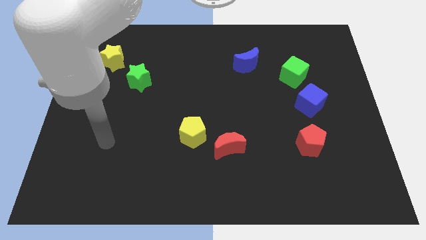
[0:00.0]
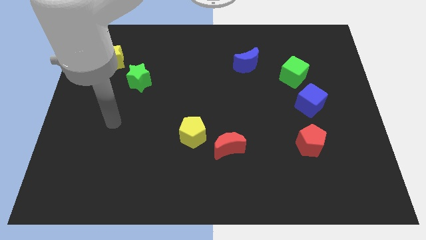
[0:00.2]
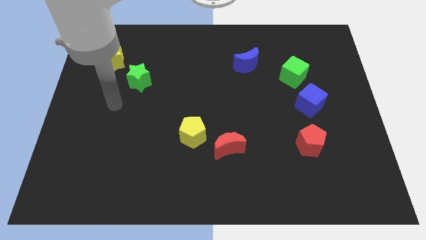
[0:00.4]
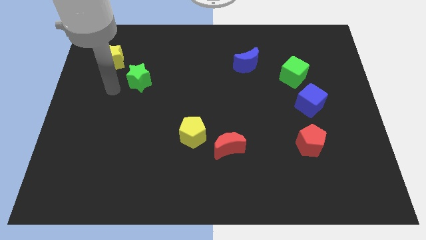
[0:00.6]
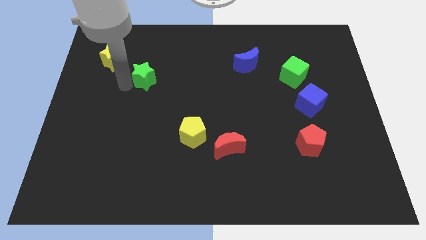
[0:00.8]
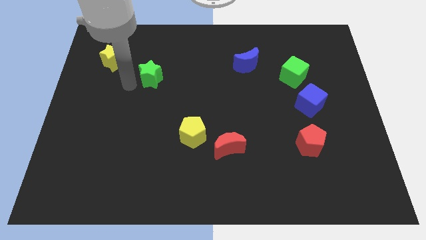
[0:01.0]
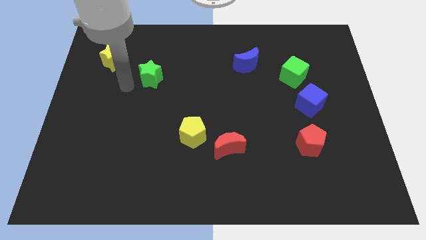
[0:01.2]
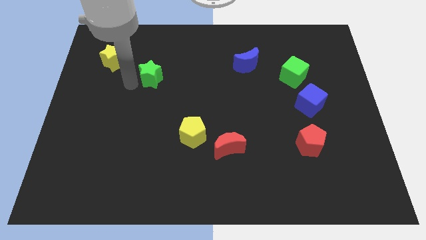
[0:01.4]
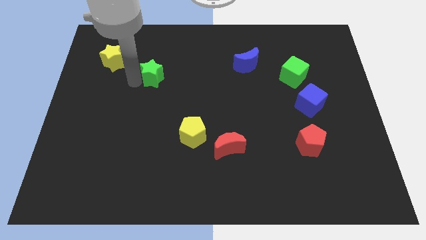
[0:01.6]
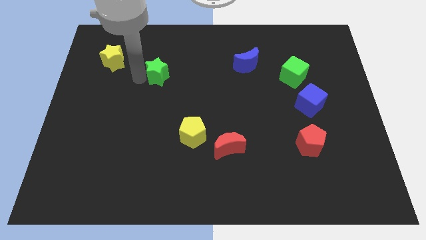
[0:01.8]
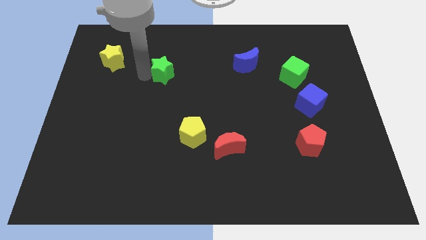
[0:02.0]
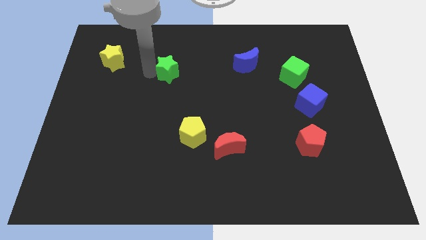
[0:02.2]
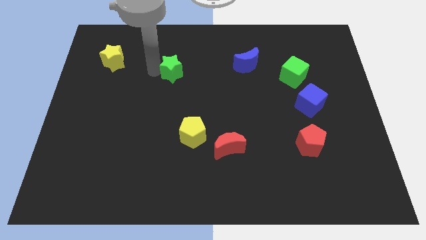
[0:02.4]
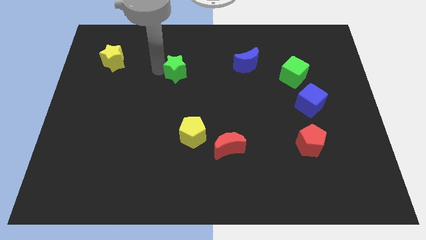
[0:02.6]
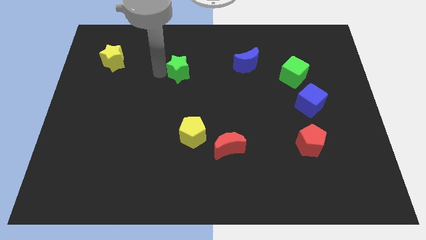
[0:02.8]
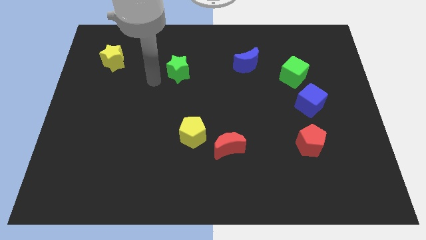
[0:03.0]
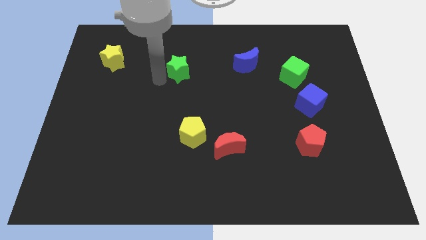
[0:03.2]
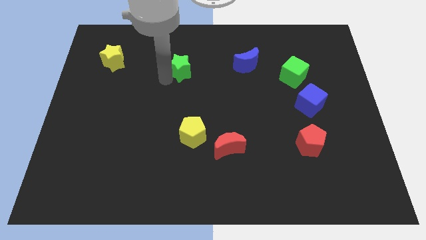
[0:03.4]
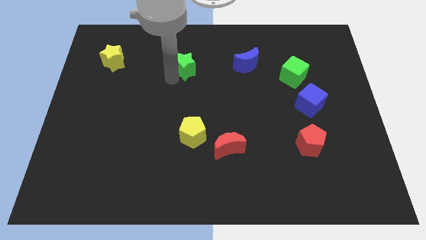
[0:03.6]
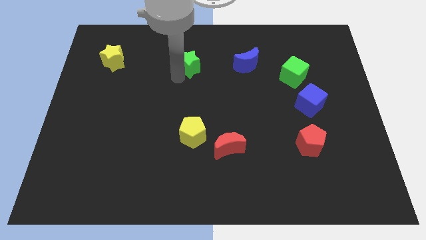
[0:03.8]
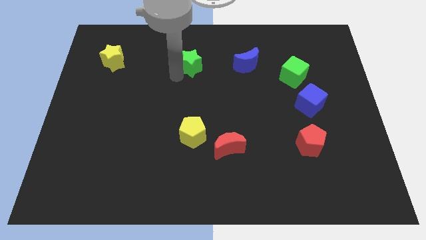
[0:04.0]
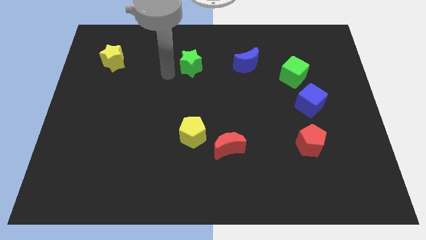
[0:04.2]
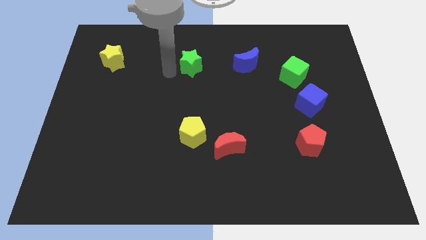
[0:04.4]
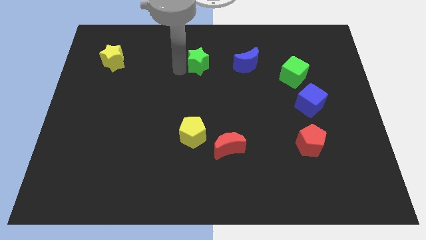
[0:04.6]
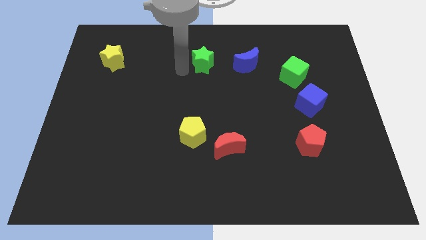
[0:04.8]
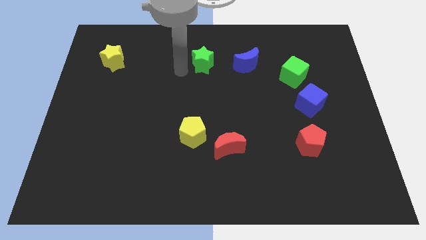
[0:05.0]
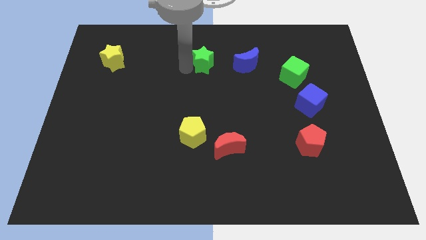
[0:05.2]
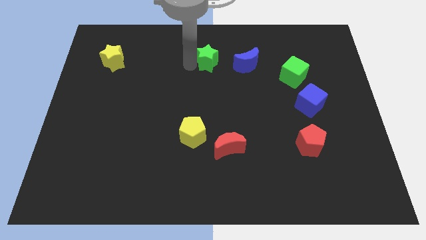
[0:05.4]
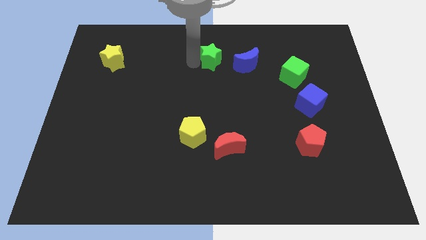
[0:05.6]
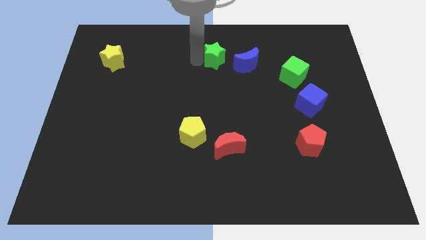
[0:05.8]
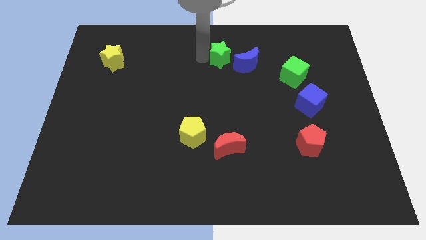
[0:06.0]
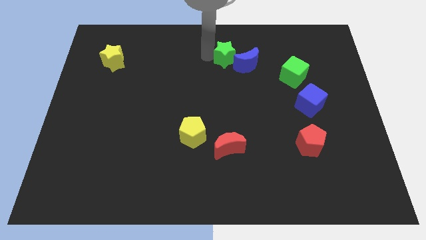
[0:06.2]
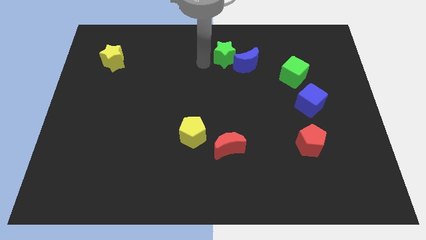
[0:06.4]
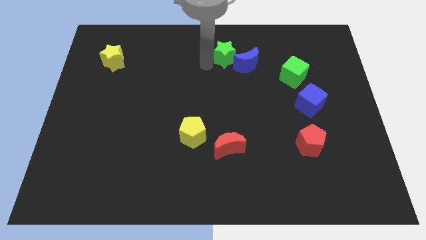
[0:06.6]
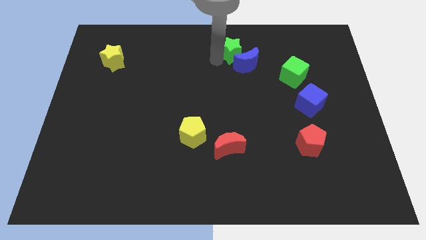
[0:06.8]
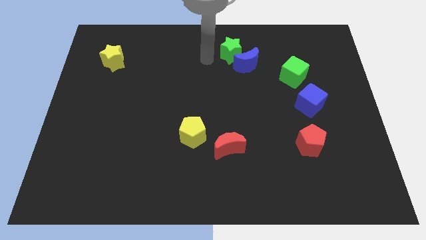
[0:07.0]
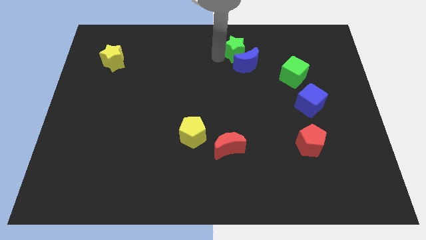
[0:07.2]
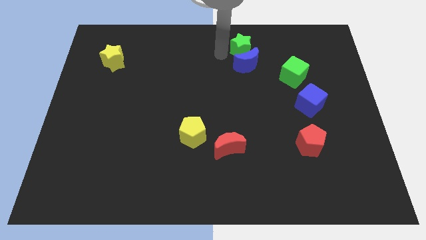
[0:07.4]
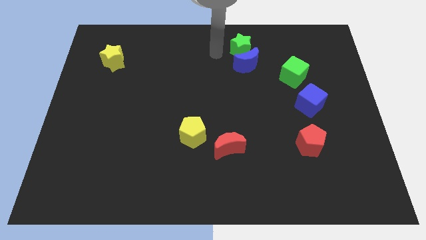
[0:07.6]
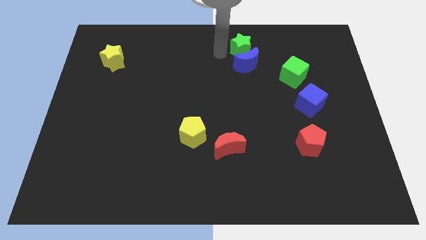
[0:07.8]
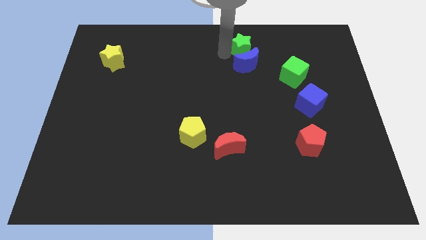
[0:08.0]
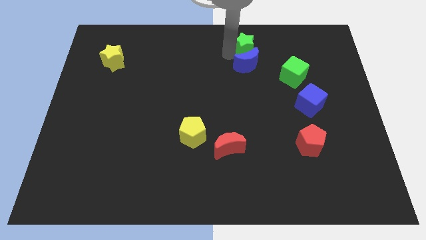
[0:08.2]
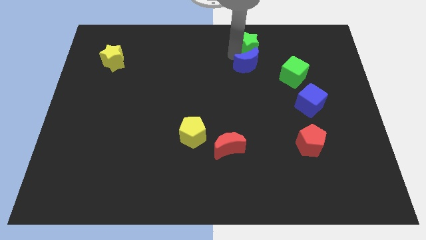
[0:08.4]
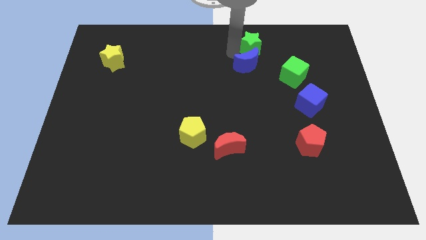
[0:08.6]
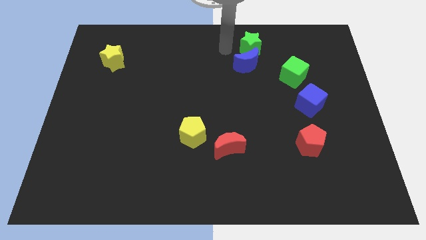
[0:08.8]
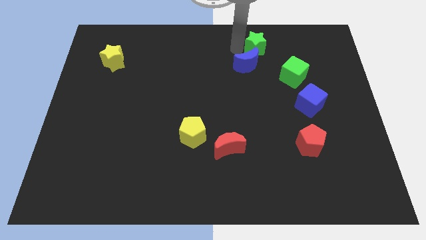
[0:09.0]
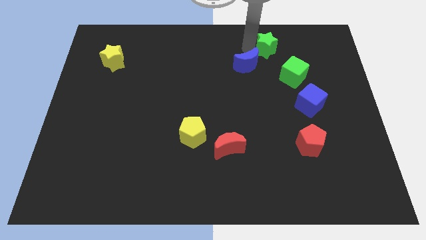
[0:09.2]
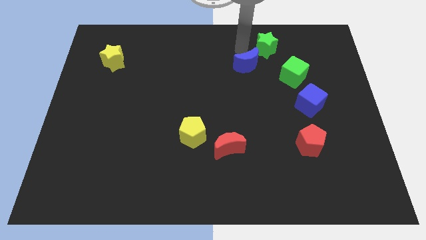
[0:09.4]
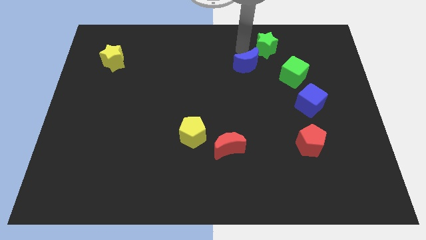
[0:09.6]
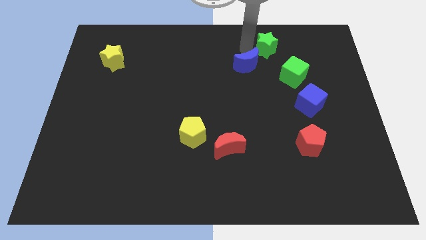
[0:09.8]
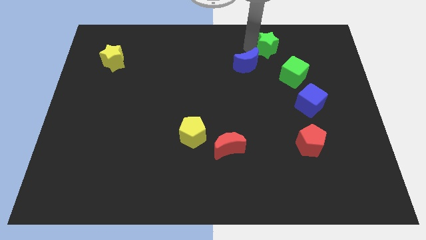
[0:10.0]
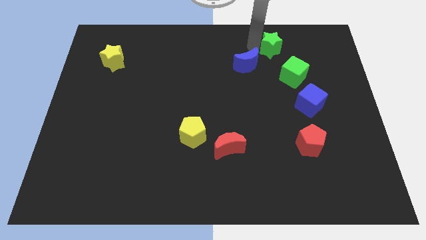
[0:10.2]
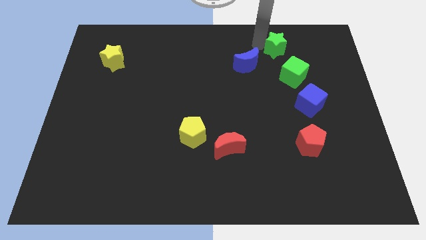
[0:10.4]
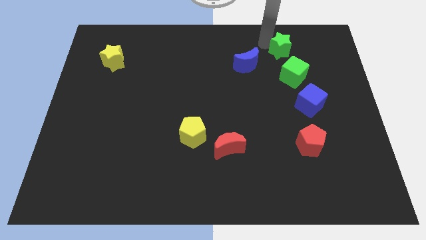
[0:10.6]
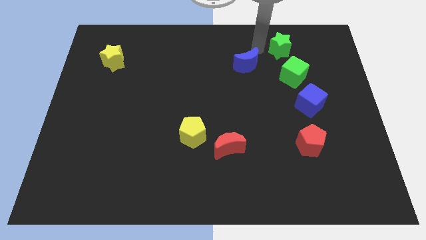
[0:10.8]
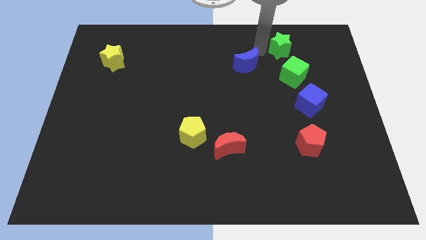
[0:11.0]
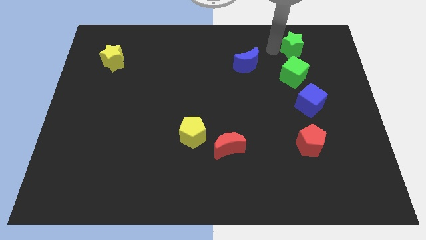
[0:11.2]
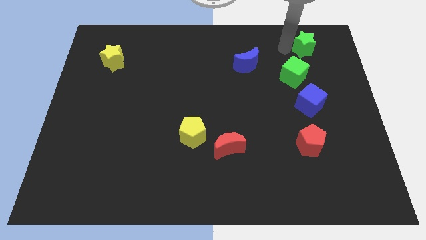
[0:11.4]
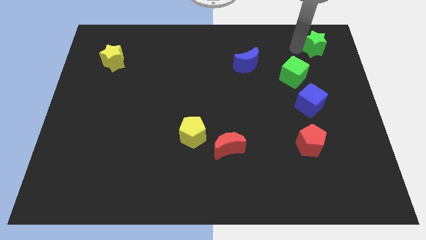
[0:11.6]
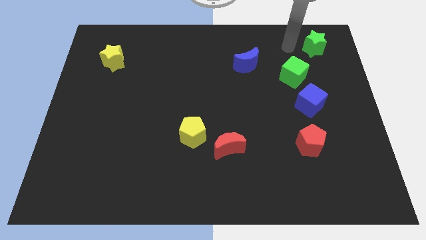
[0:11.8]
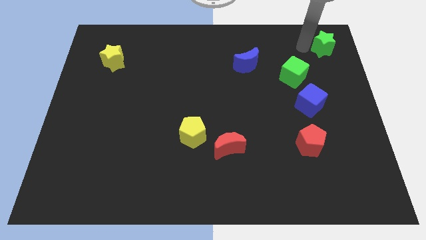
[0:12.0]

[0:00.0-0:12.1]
slide the green star to the upper right corner

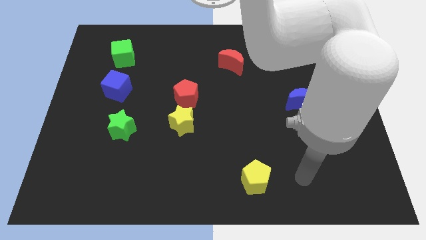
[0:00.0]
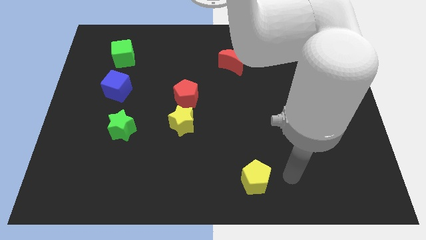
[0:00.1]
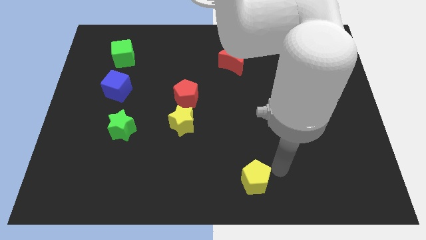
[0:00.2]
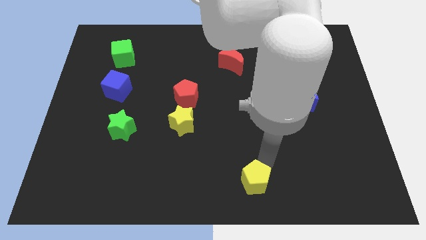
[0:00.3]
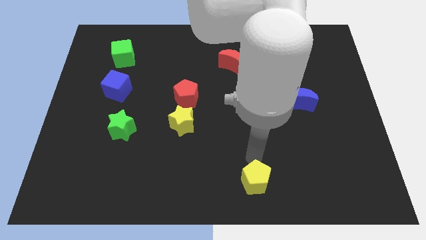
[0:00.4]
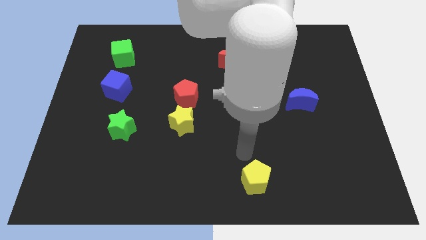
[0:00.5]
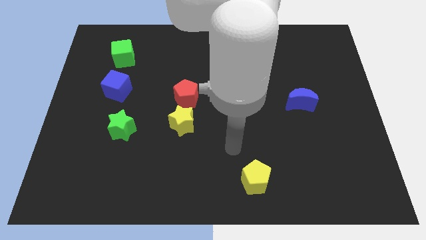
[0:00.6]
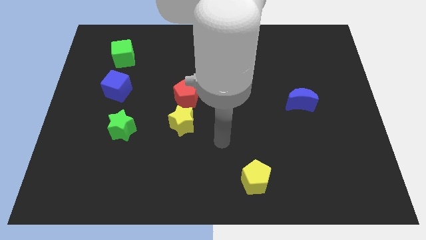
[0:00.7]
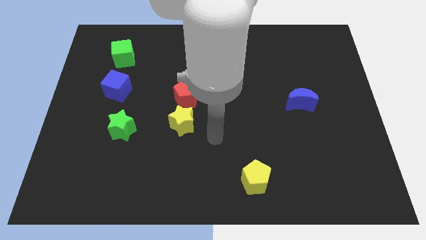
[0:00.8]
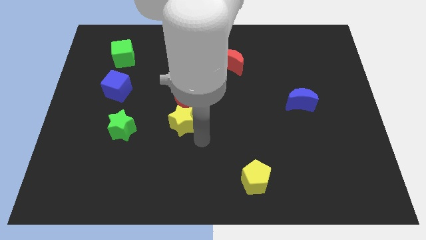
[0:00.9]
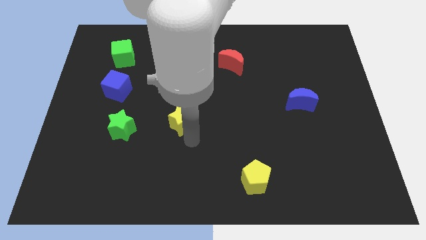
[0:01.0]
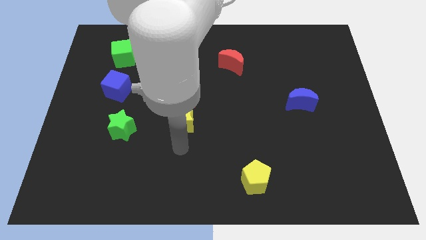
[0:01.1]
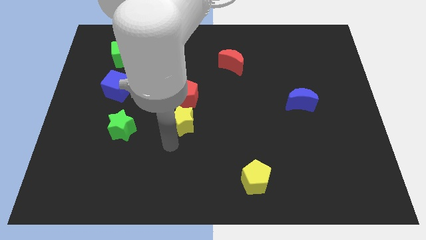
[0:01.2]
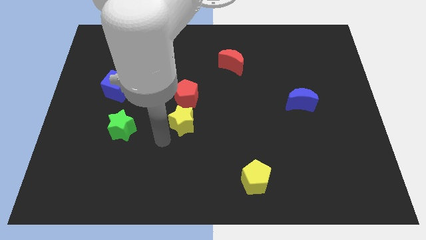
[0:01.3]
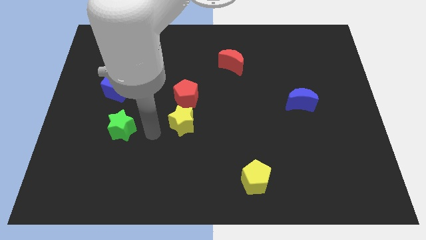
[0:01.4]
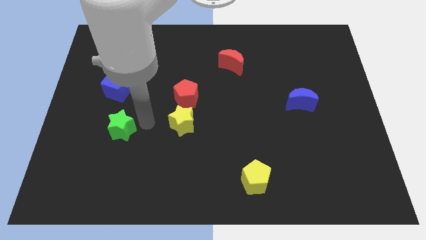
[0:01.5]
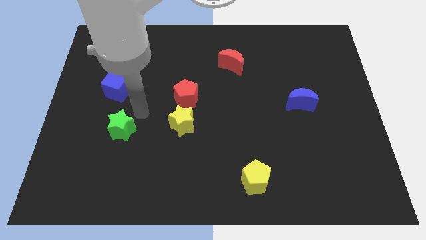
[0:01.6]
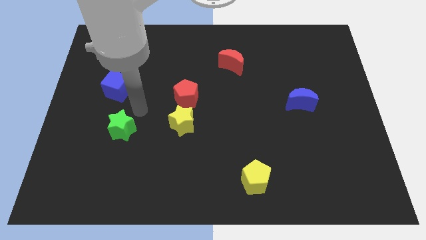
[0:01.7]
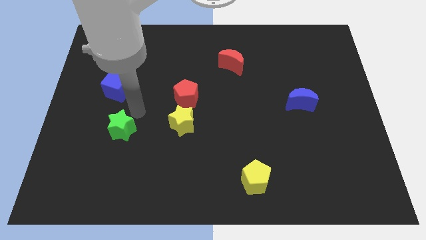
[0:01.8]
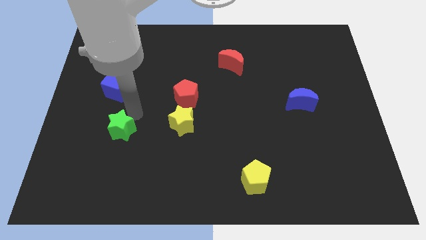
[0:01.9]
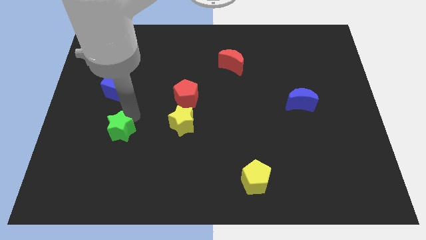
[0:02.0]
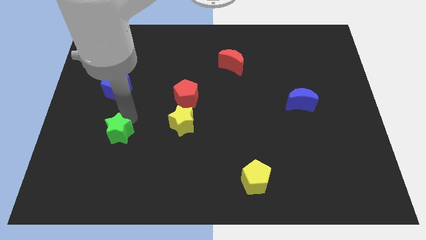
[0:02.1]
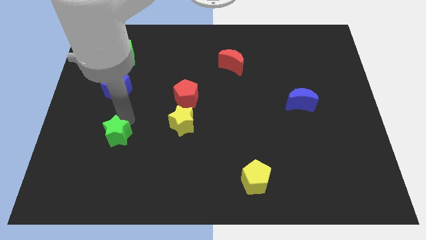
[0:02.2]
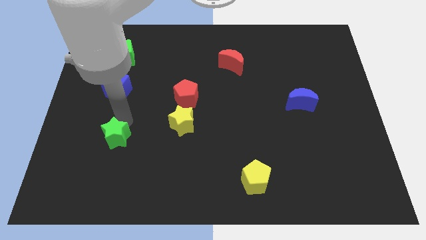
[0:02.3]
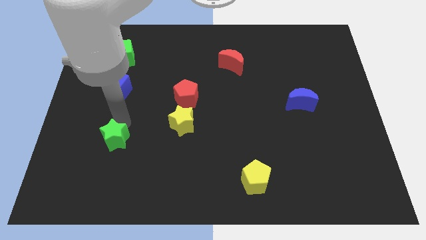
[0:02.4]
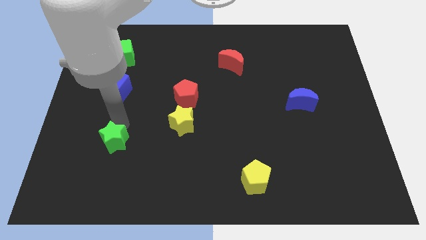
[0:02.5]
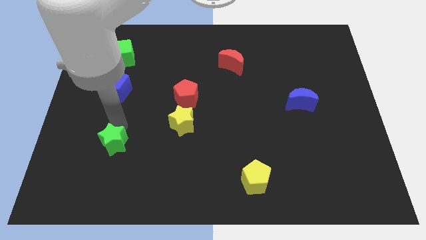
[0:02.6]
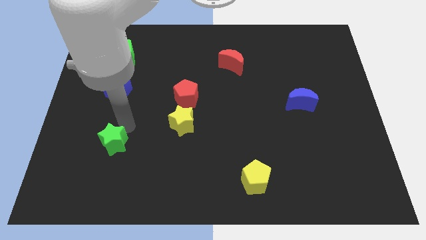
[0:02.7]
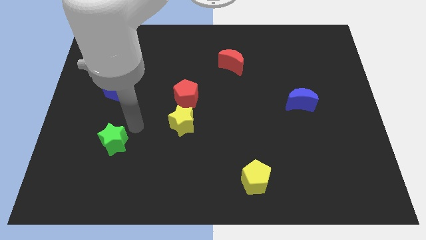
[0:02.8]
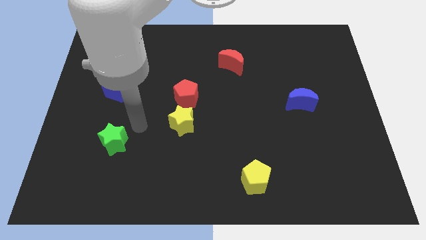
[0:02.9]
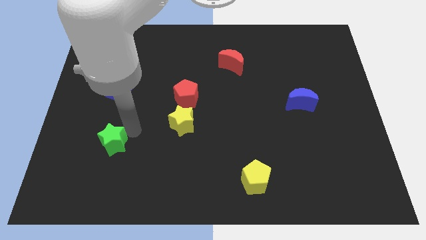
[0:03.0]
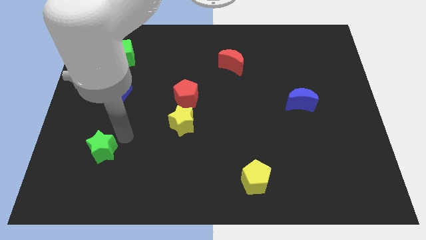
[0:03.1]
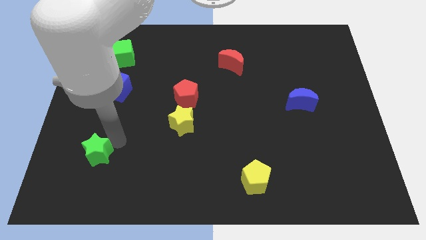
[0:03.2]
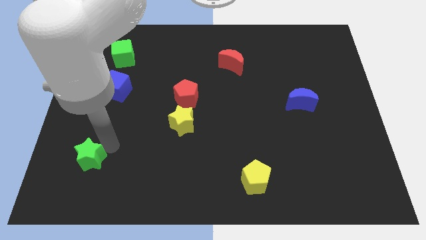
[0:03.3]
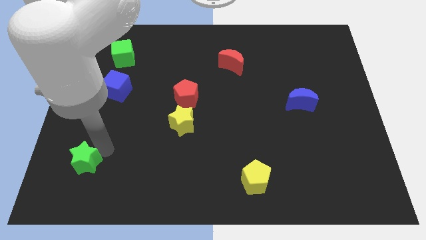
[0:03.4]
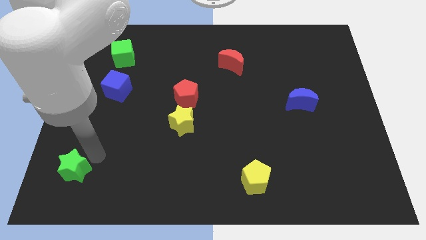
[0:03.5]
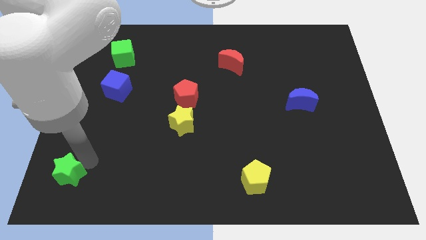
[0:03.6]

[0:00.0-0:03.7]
slide the green star to the bottom left of the board
